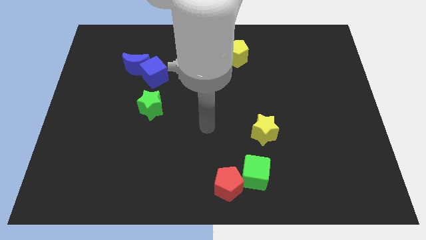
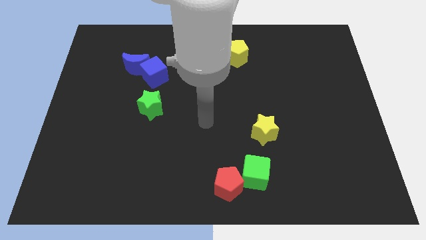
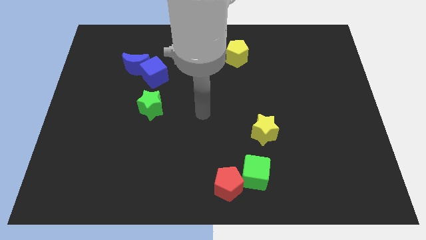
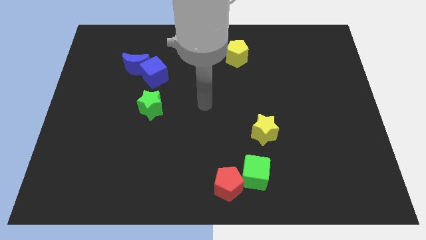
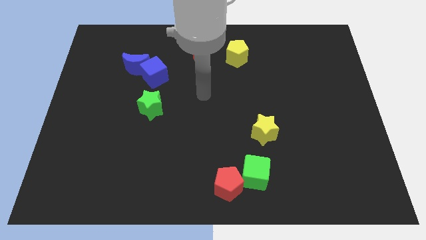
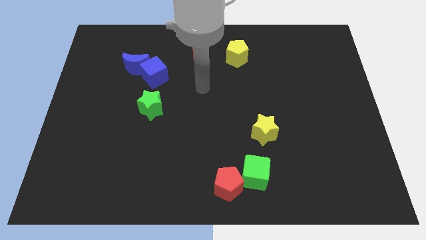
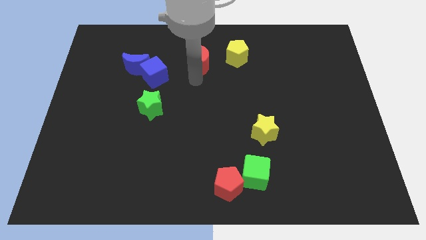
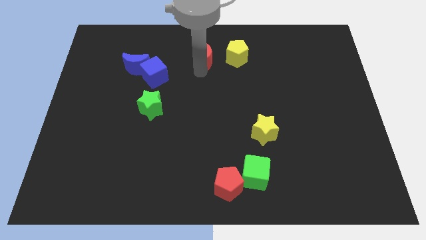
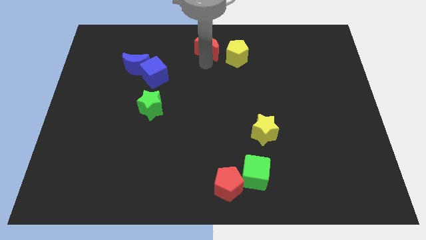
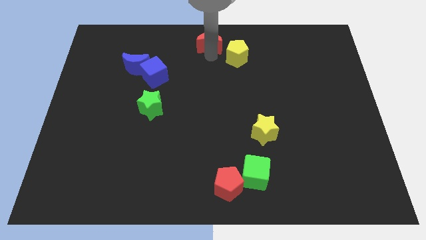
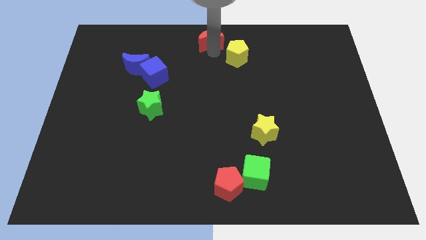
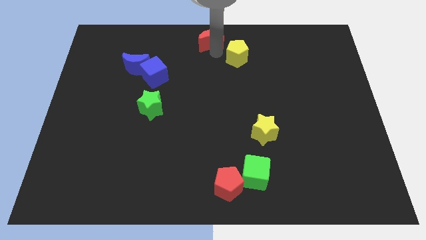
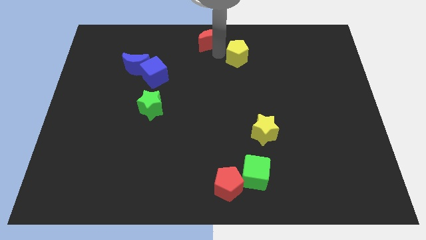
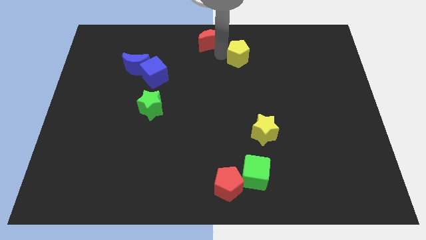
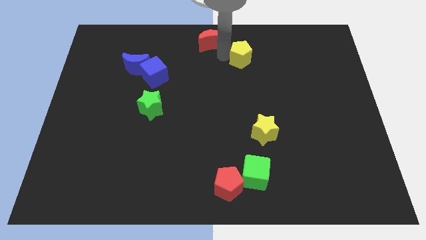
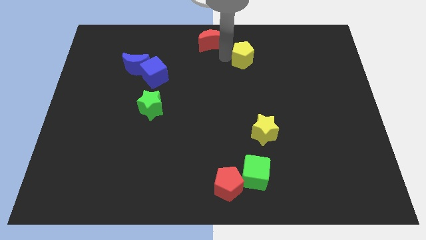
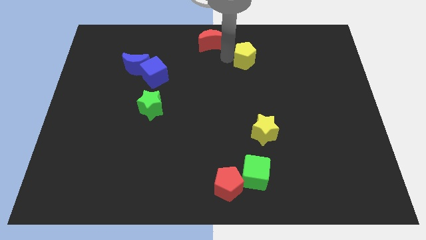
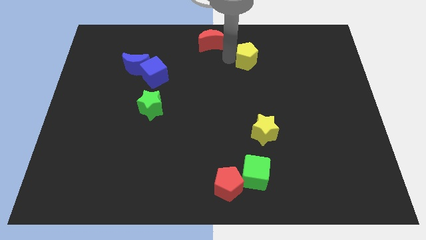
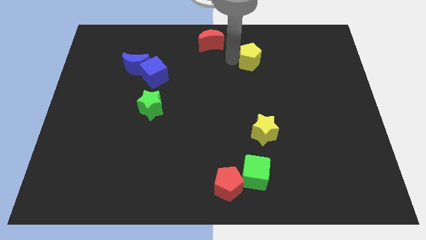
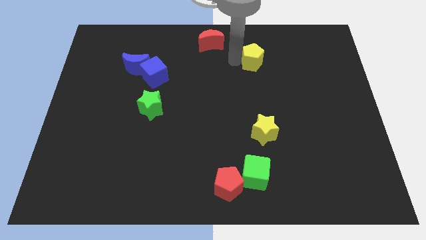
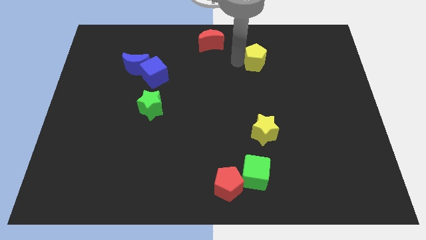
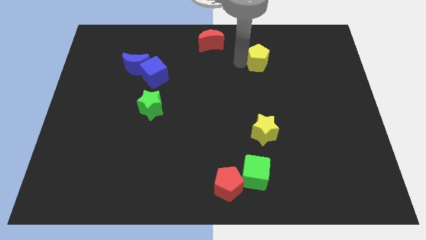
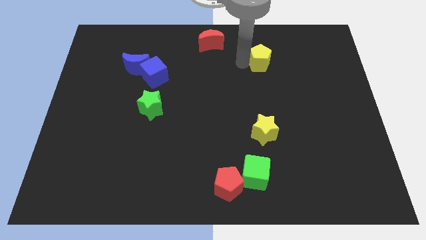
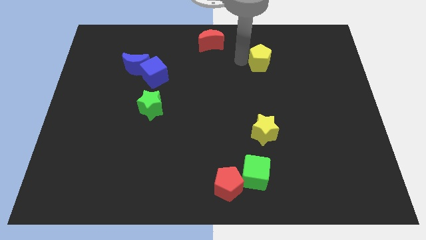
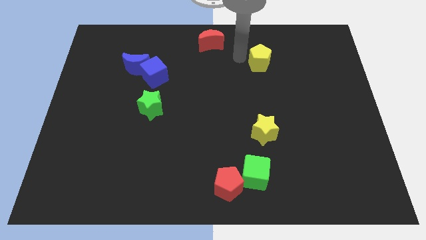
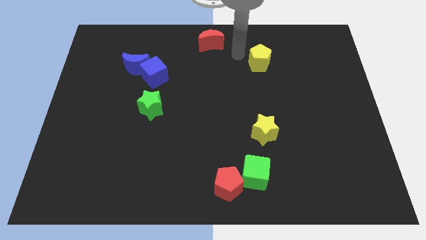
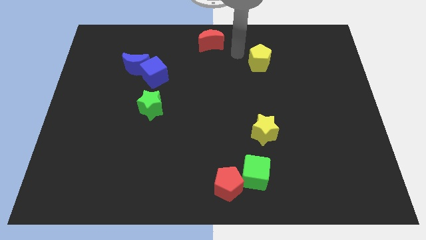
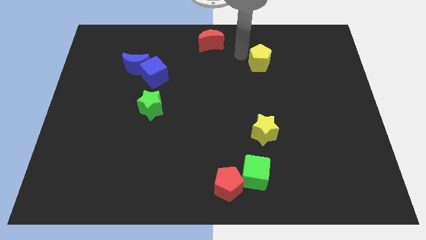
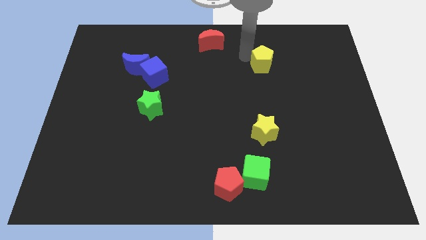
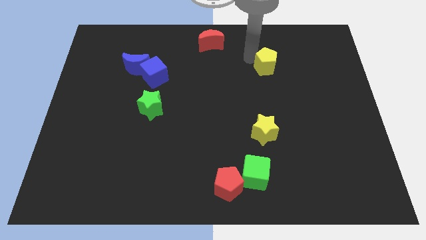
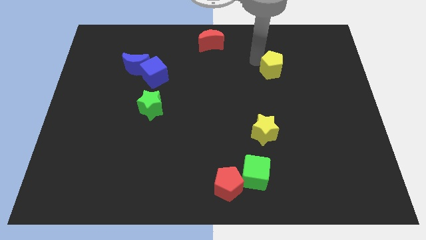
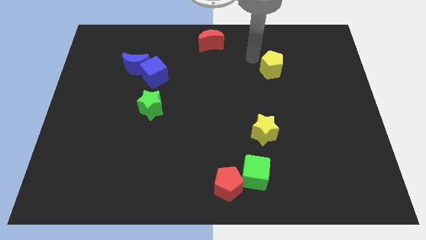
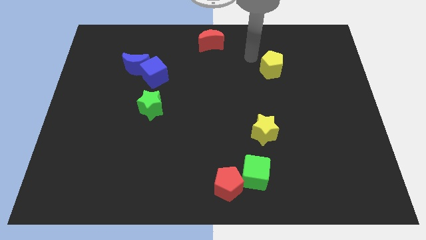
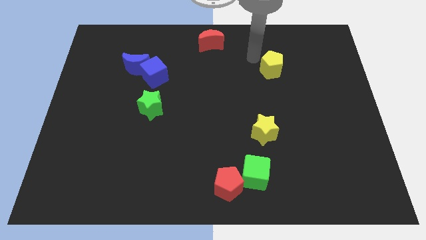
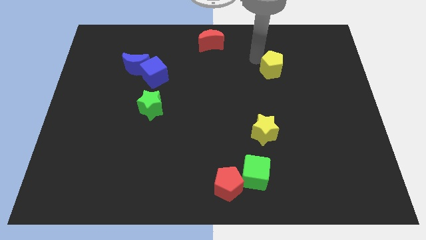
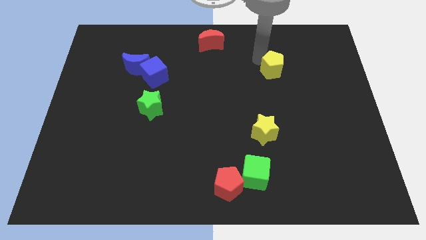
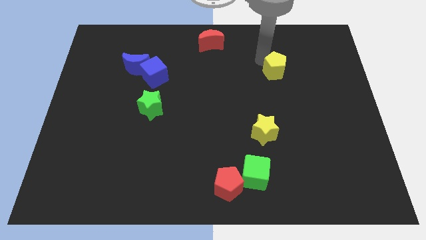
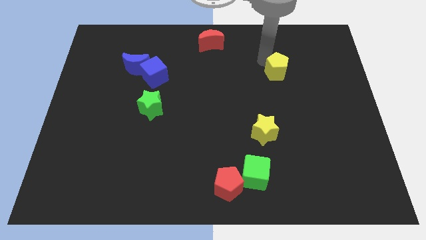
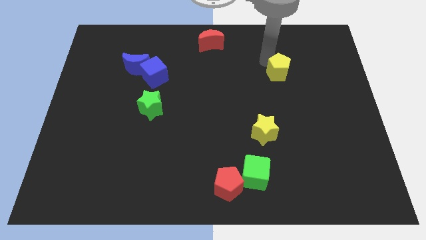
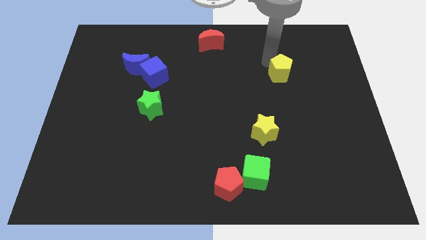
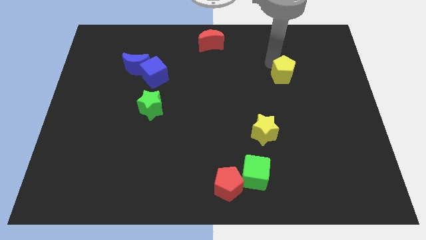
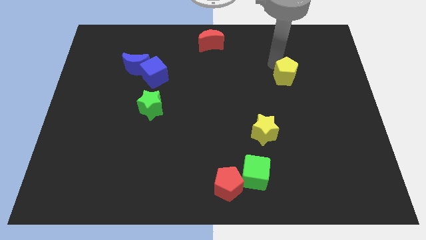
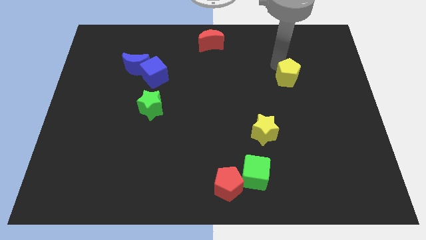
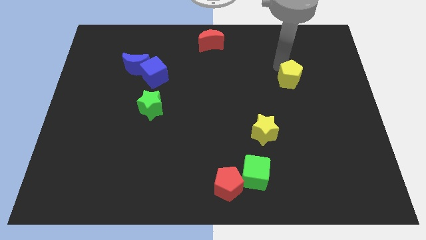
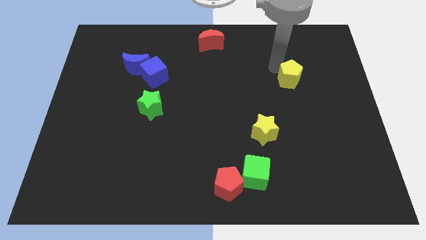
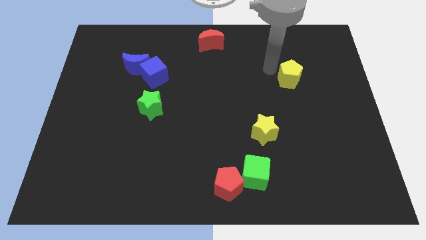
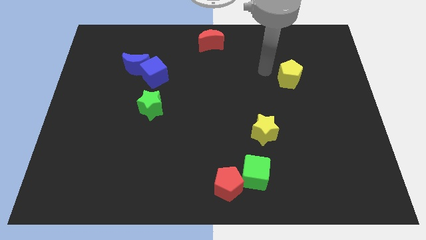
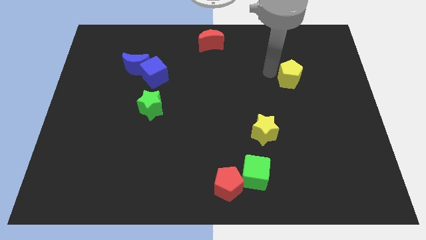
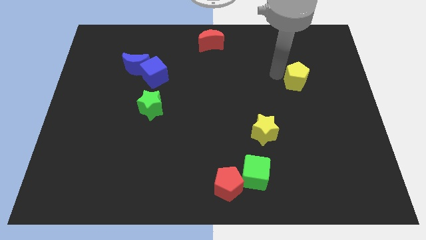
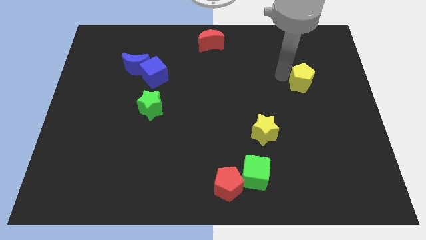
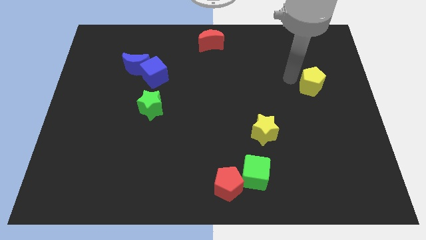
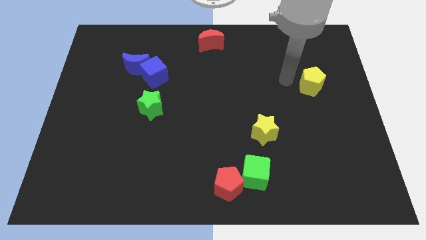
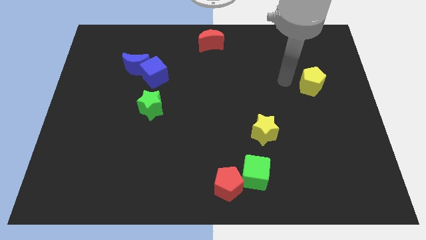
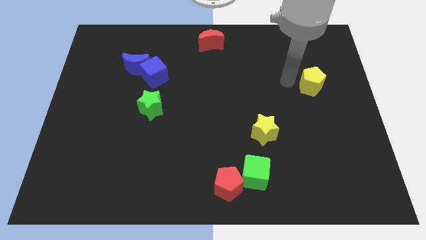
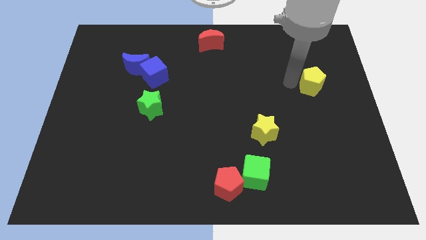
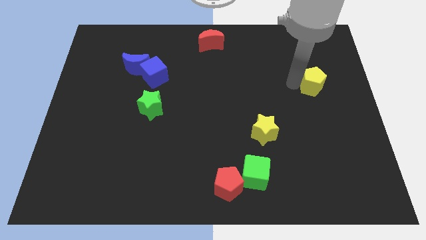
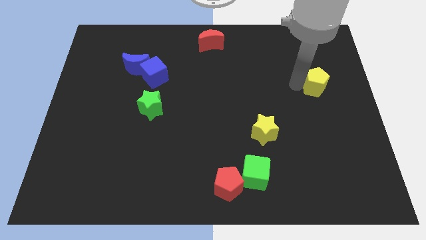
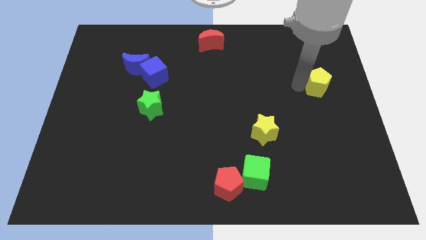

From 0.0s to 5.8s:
push the yellow pentagon to the right side of the board

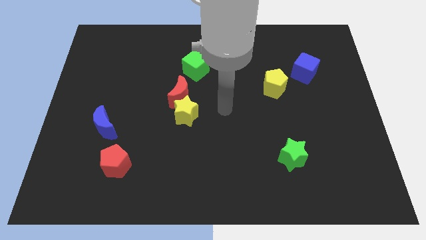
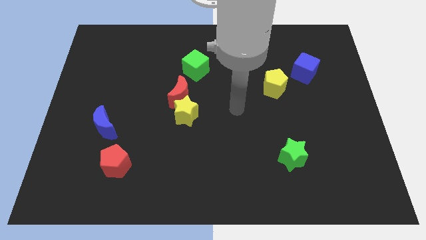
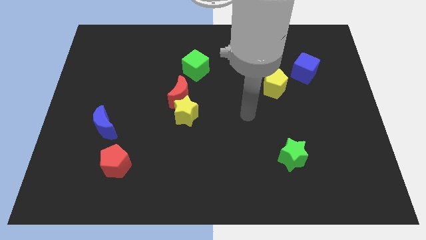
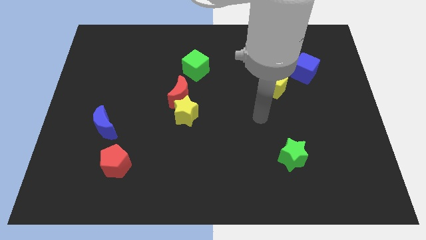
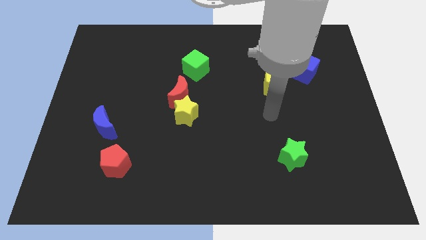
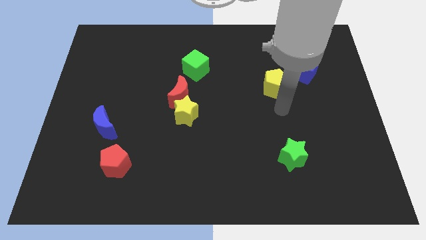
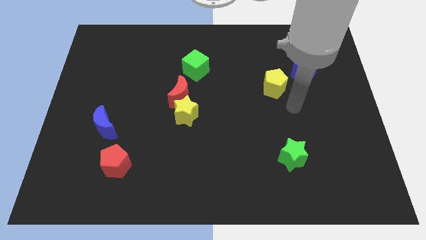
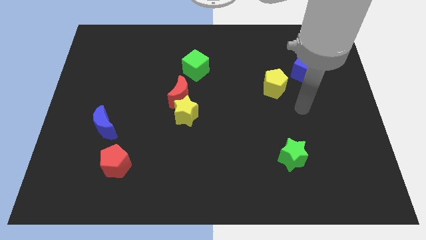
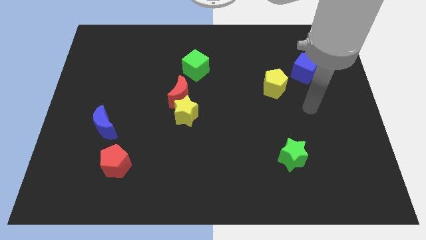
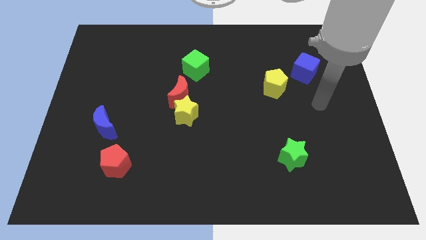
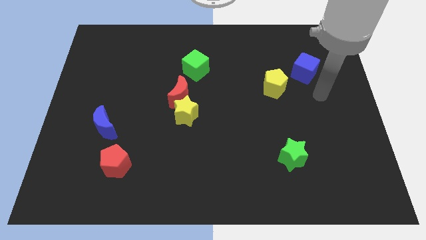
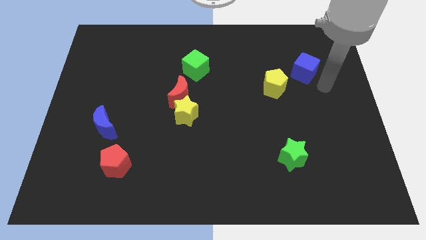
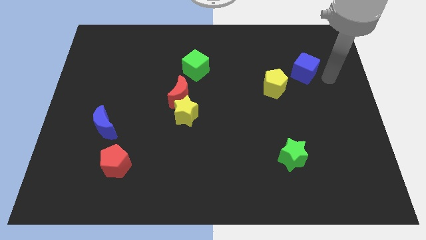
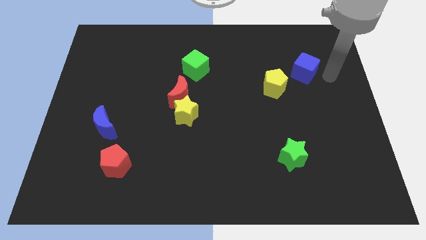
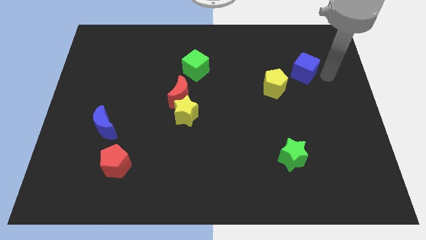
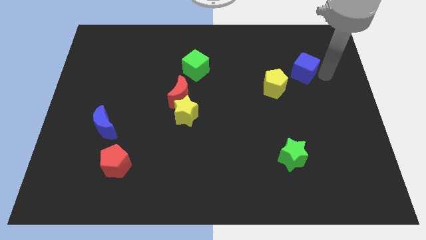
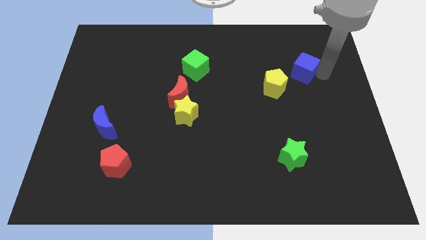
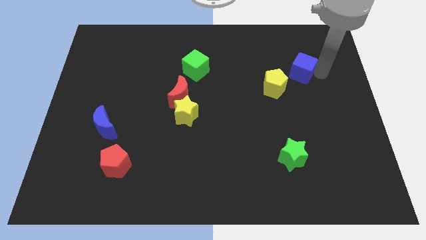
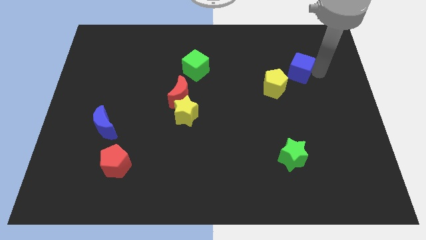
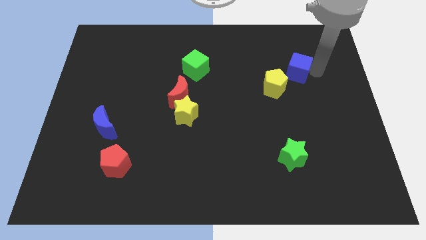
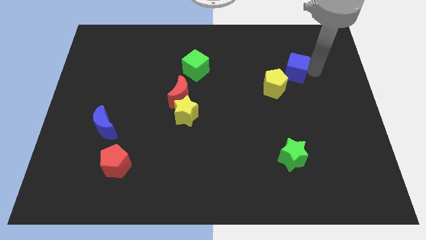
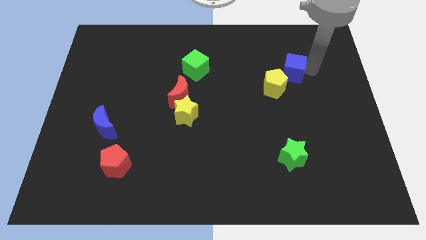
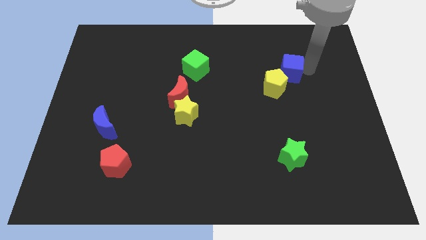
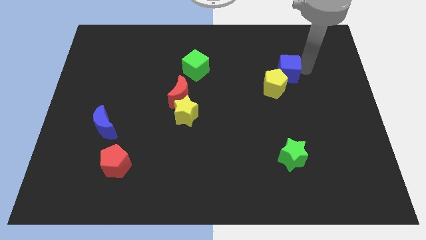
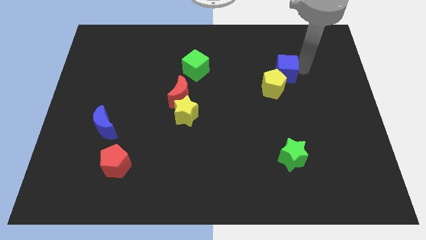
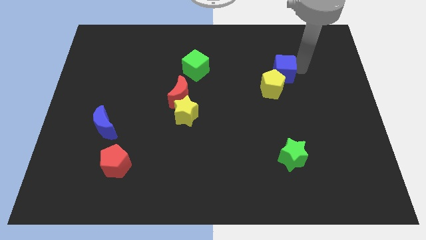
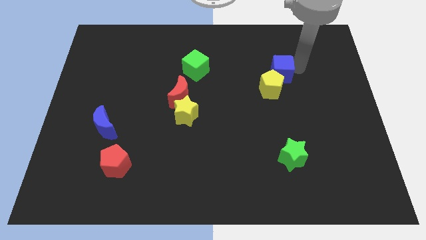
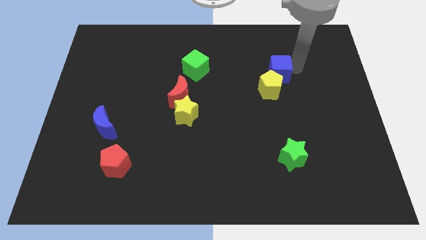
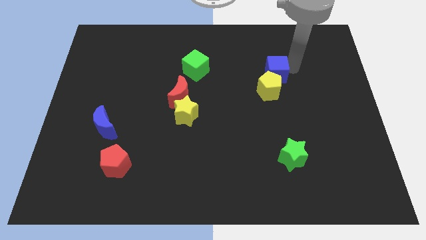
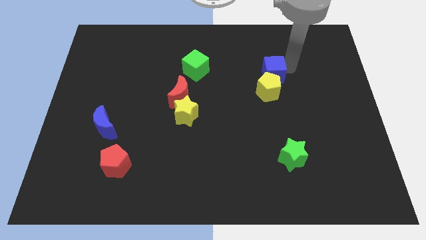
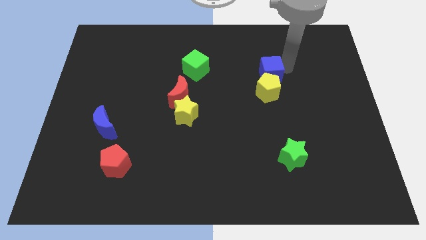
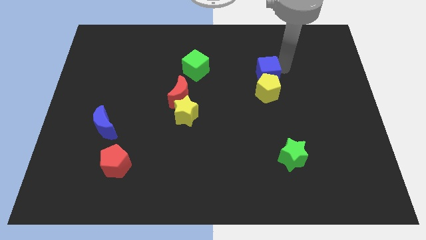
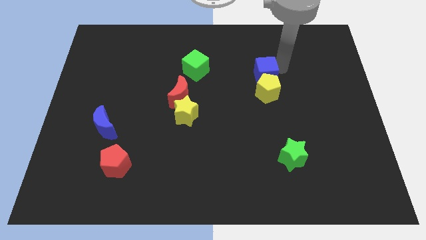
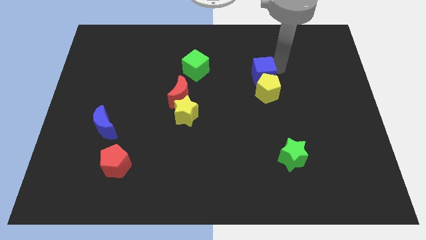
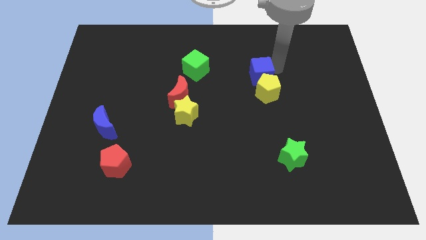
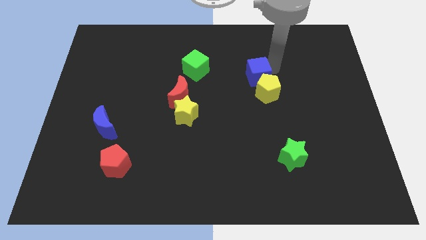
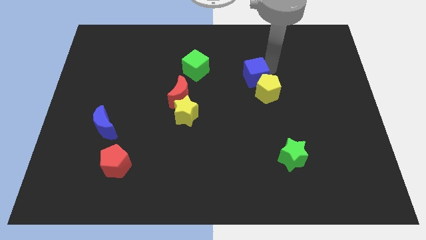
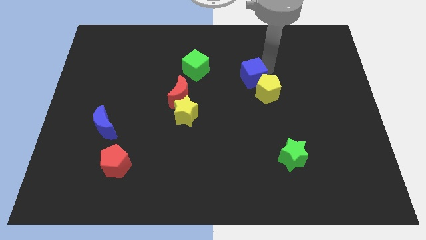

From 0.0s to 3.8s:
put the blue cube to the middle of the board
